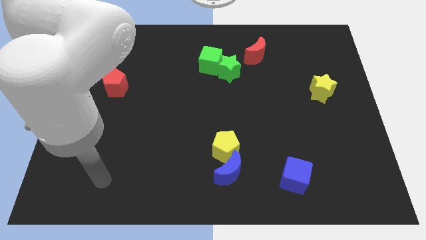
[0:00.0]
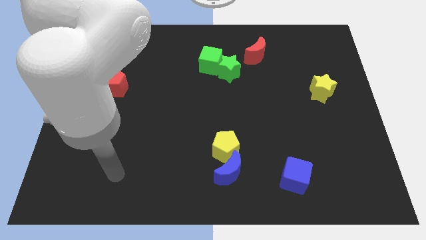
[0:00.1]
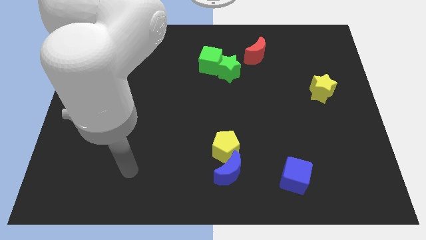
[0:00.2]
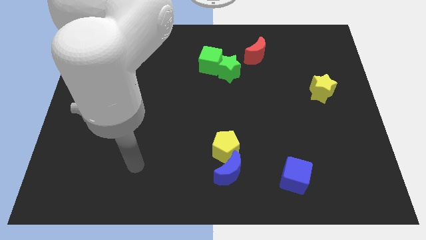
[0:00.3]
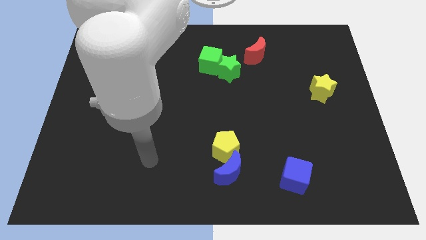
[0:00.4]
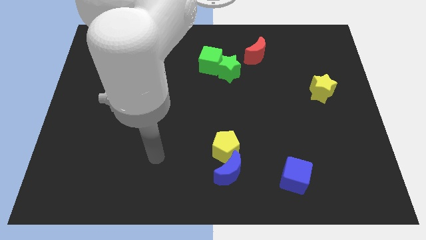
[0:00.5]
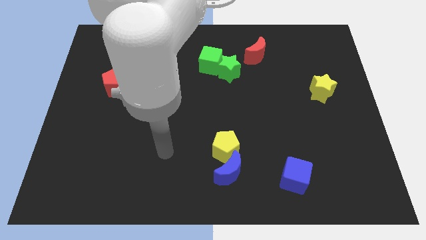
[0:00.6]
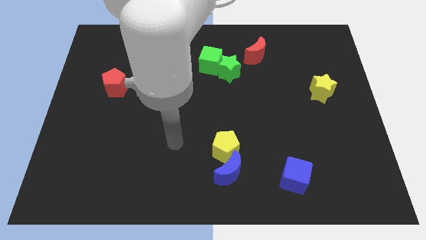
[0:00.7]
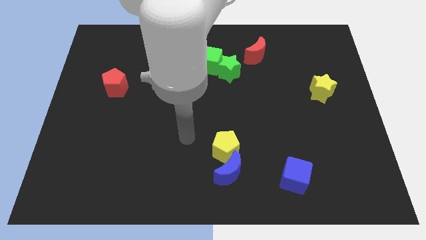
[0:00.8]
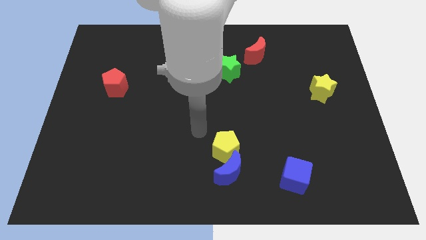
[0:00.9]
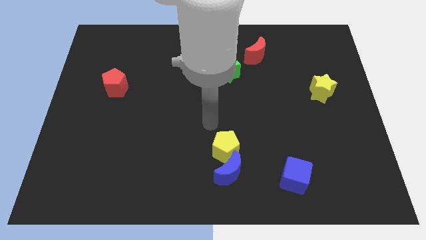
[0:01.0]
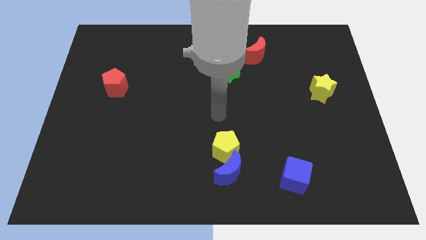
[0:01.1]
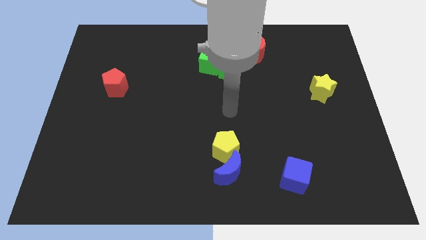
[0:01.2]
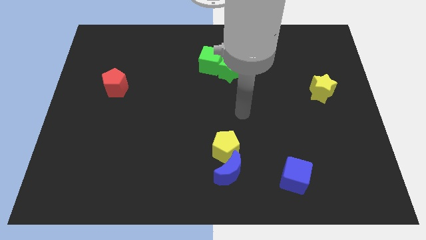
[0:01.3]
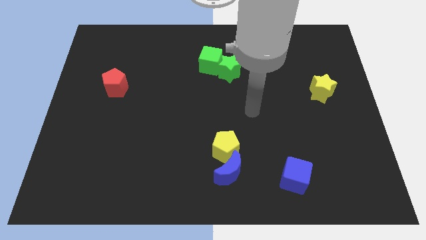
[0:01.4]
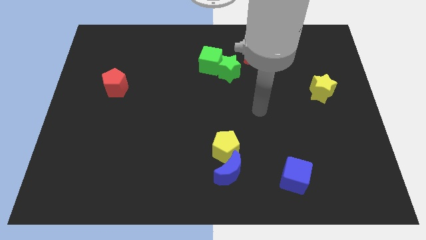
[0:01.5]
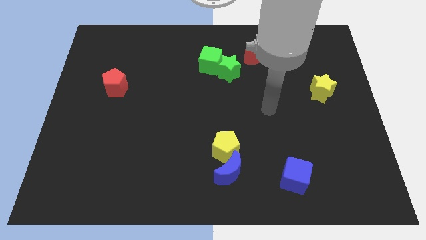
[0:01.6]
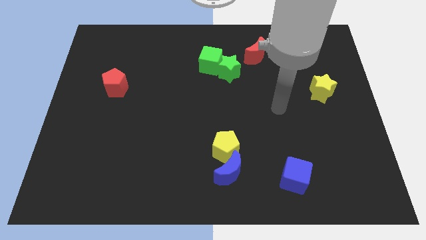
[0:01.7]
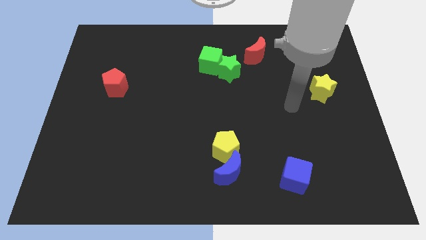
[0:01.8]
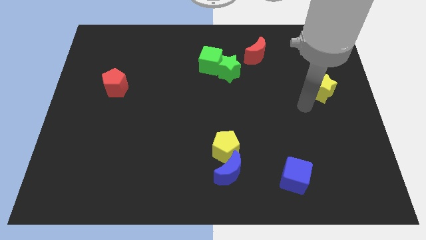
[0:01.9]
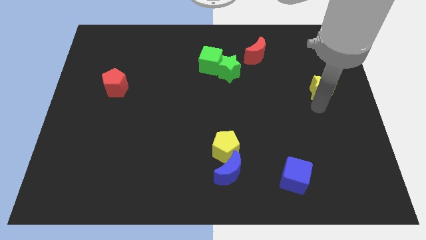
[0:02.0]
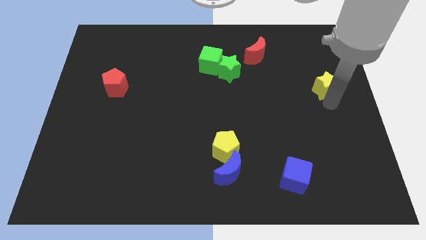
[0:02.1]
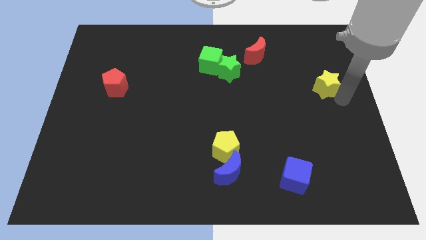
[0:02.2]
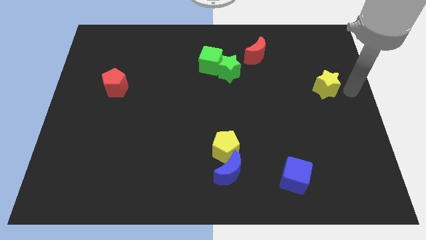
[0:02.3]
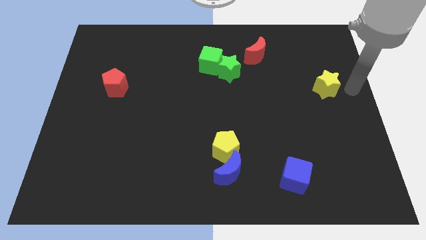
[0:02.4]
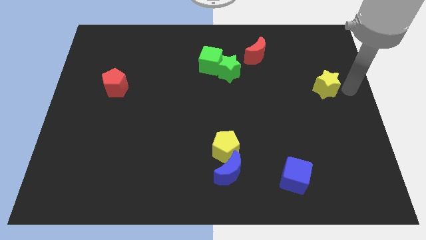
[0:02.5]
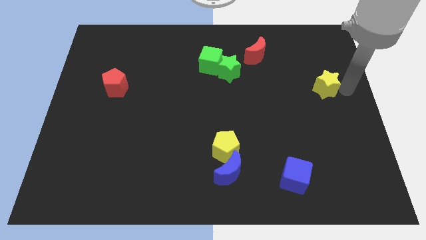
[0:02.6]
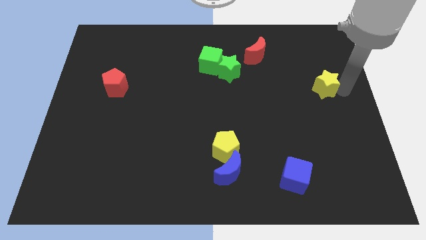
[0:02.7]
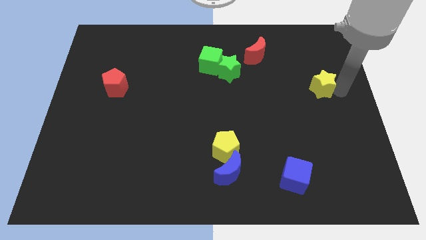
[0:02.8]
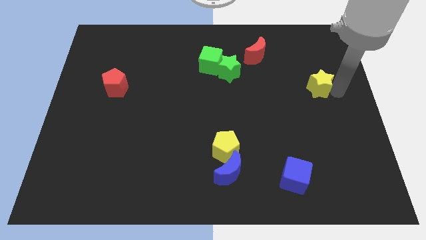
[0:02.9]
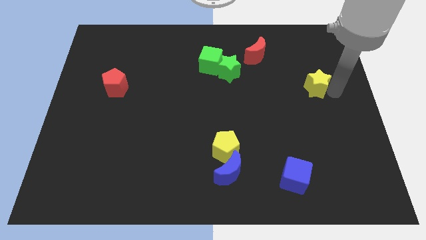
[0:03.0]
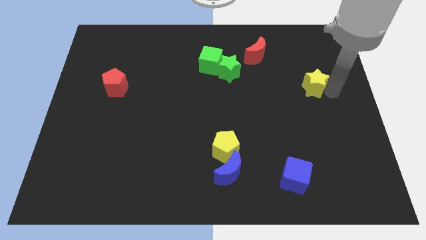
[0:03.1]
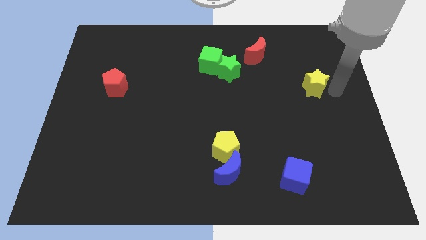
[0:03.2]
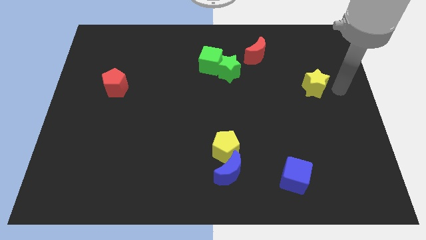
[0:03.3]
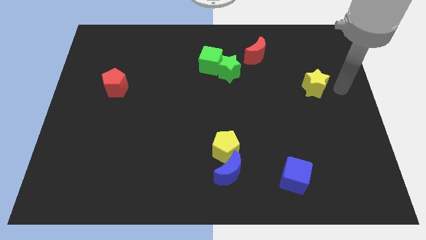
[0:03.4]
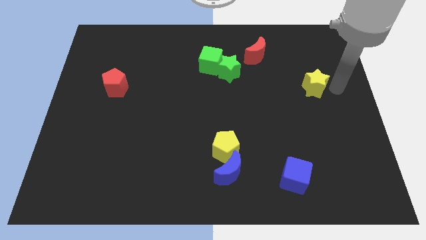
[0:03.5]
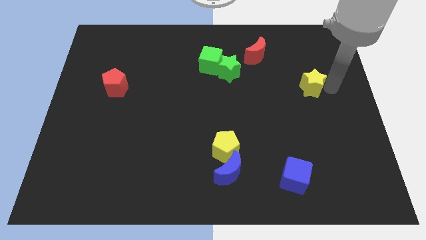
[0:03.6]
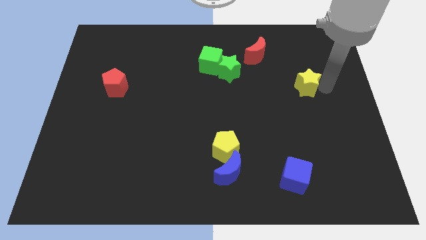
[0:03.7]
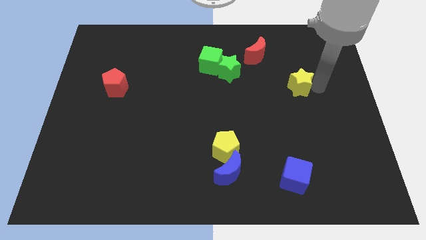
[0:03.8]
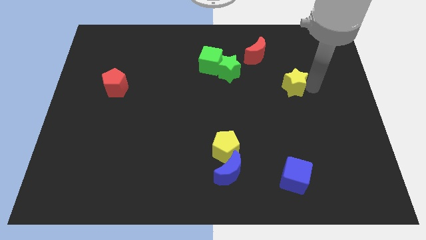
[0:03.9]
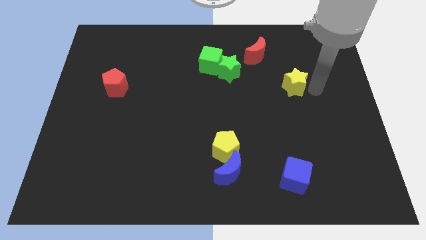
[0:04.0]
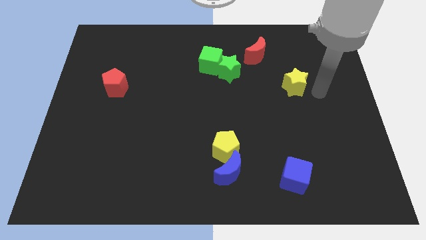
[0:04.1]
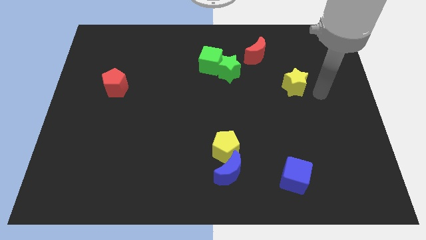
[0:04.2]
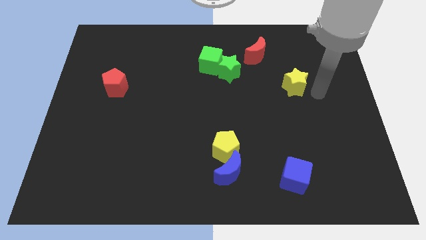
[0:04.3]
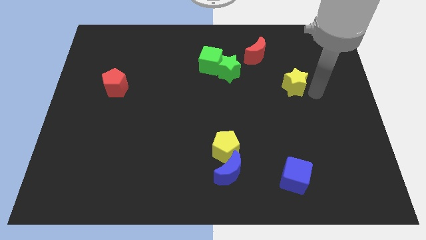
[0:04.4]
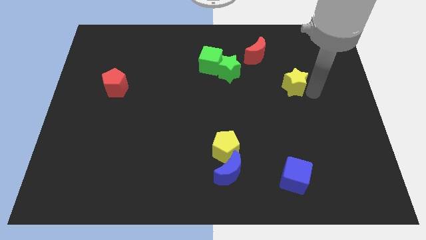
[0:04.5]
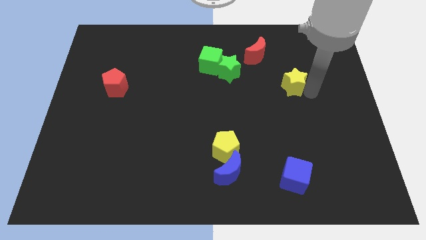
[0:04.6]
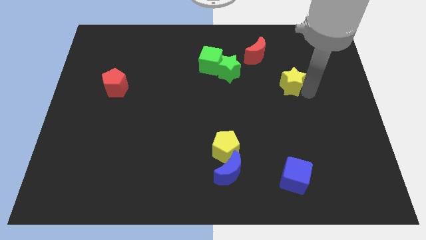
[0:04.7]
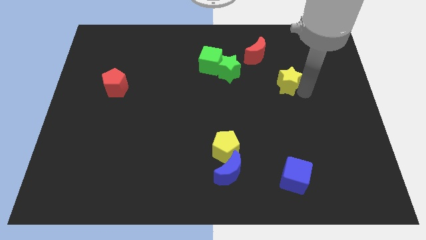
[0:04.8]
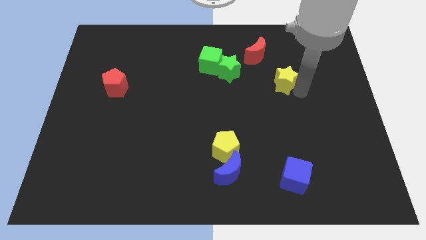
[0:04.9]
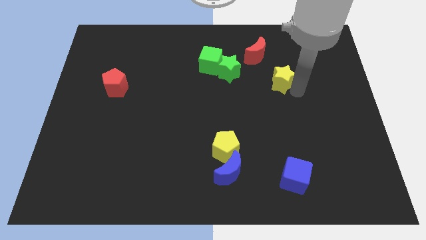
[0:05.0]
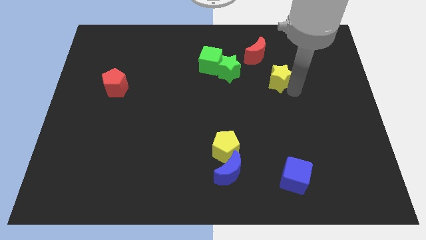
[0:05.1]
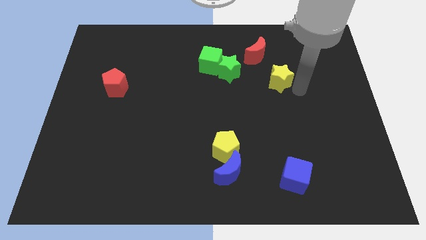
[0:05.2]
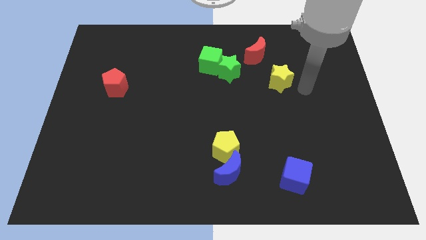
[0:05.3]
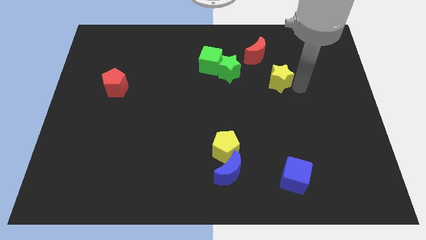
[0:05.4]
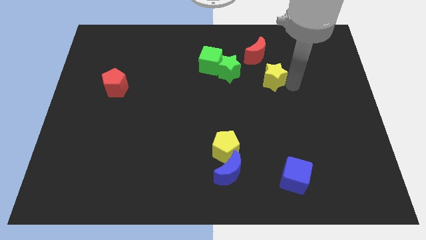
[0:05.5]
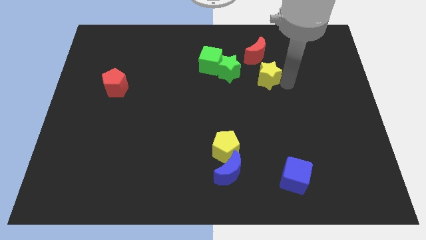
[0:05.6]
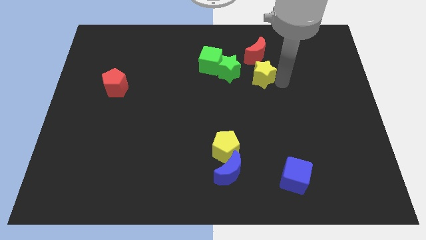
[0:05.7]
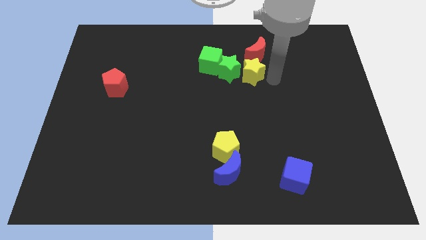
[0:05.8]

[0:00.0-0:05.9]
slide the yellow star to the green star

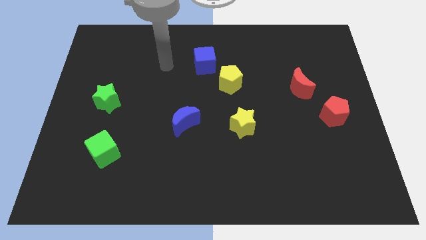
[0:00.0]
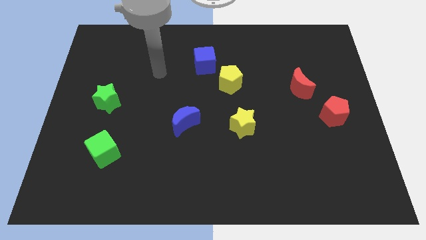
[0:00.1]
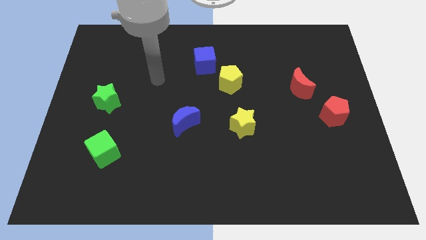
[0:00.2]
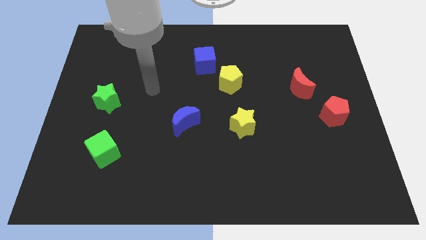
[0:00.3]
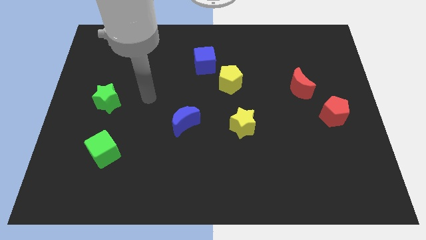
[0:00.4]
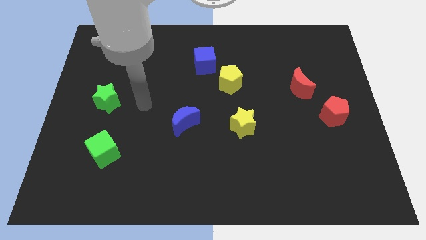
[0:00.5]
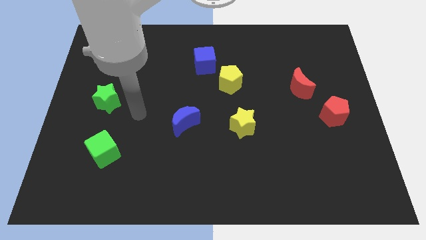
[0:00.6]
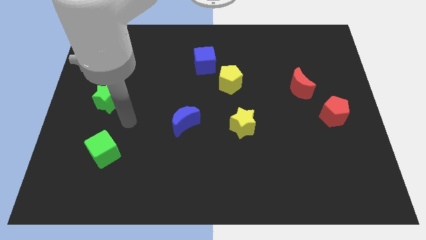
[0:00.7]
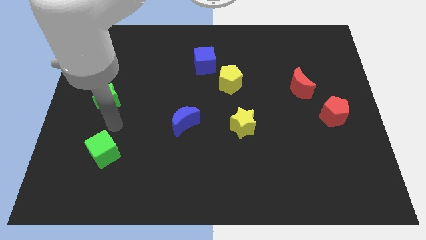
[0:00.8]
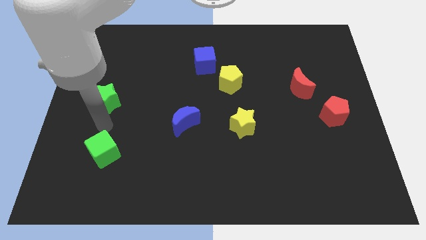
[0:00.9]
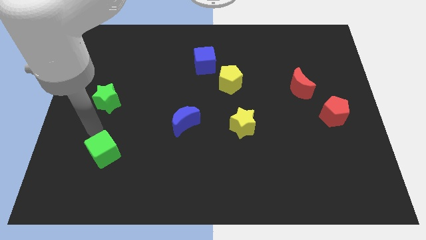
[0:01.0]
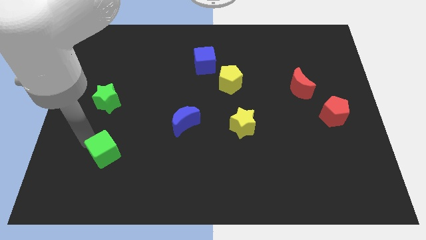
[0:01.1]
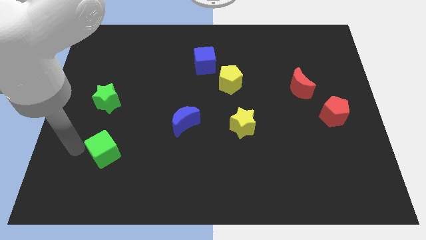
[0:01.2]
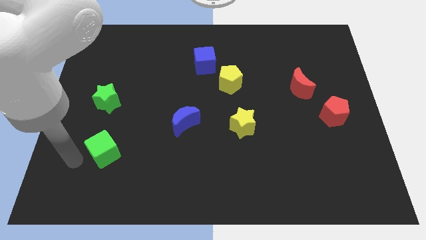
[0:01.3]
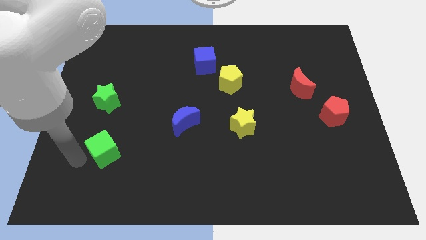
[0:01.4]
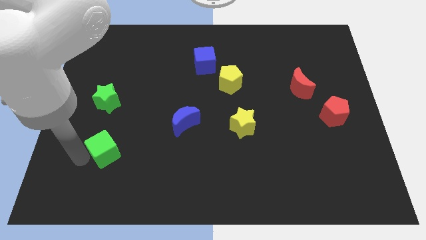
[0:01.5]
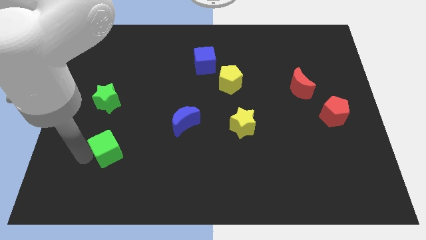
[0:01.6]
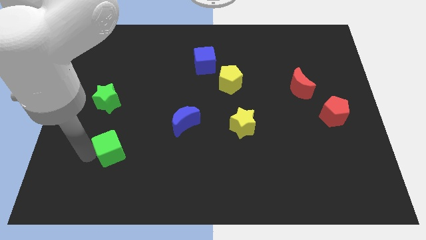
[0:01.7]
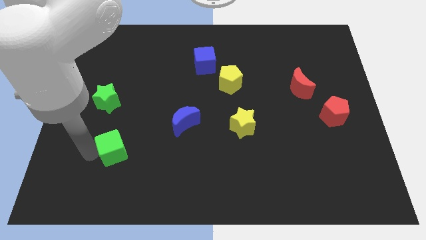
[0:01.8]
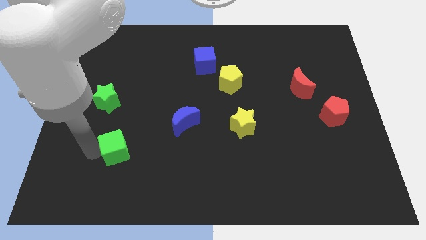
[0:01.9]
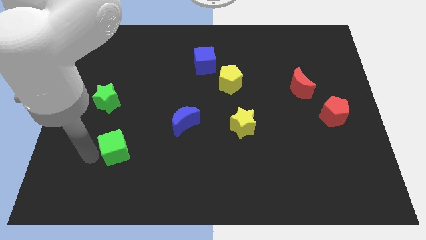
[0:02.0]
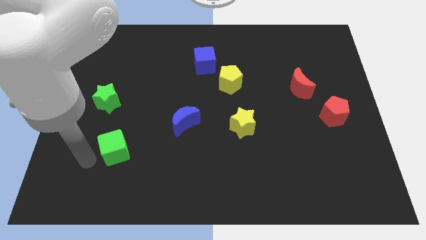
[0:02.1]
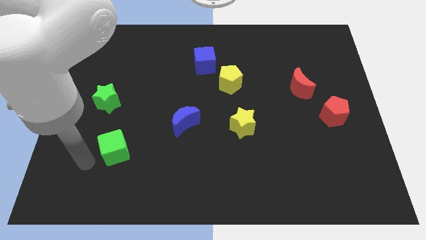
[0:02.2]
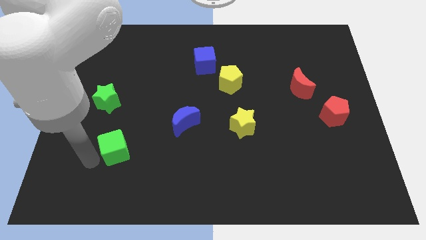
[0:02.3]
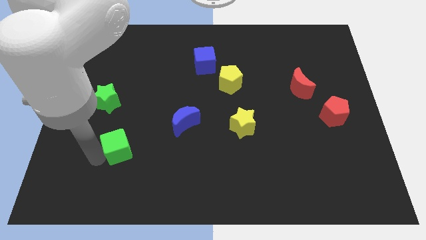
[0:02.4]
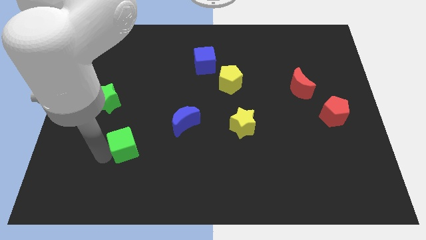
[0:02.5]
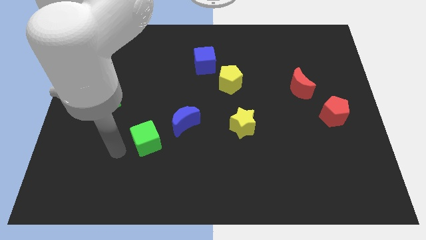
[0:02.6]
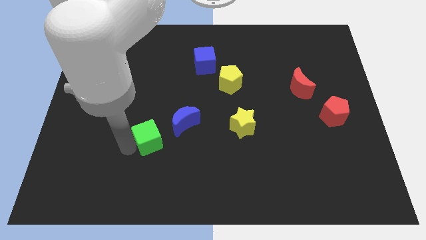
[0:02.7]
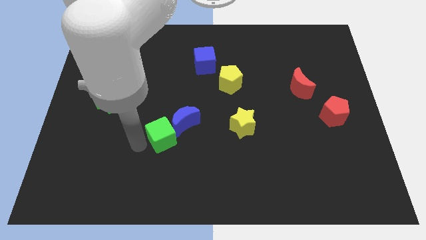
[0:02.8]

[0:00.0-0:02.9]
move the green cube to the blue moon
